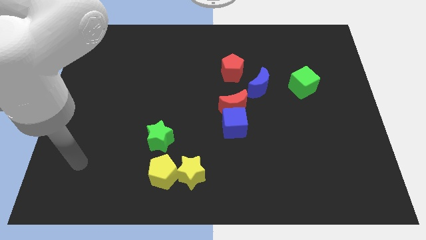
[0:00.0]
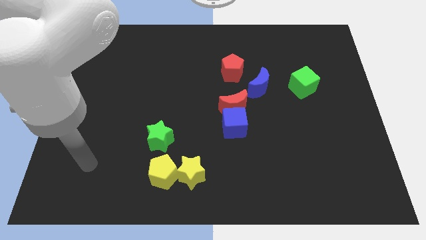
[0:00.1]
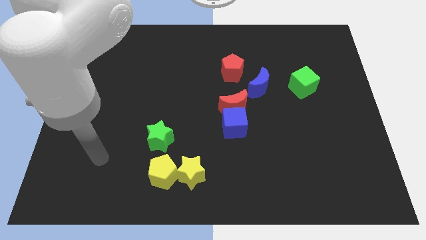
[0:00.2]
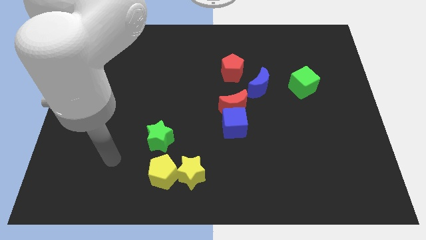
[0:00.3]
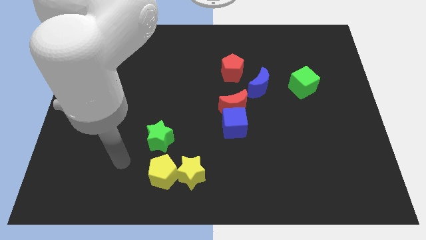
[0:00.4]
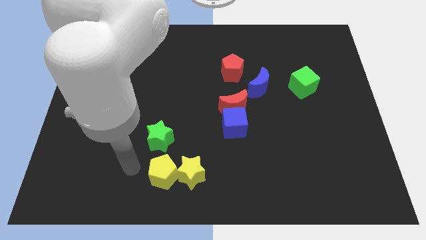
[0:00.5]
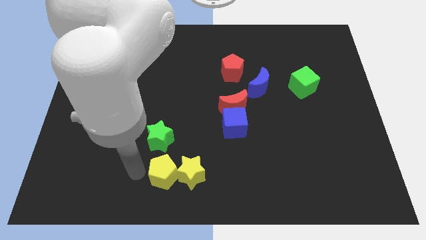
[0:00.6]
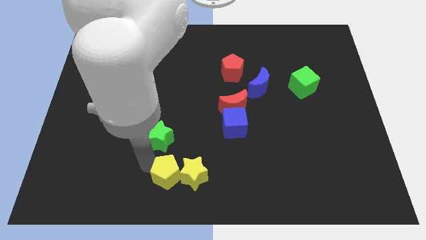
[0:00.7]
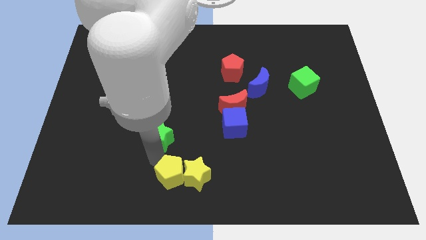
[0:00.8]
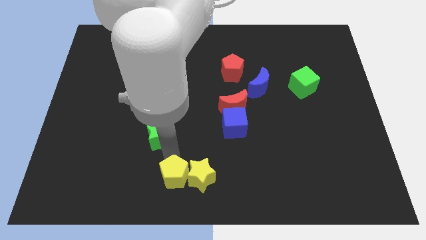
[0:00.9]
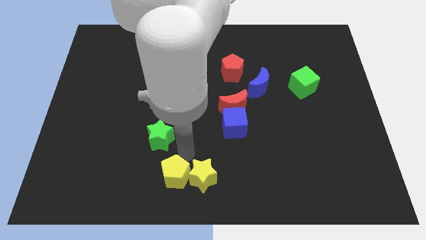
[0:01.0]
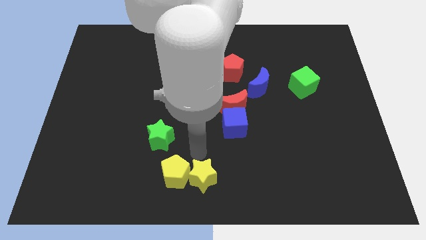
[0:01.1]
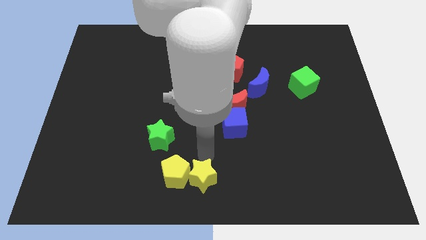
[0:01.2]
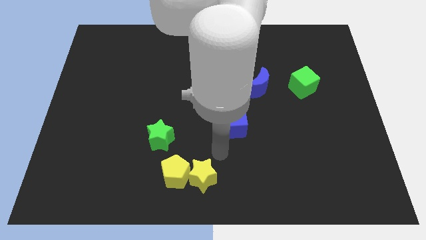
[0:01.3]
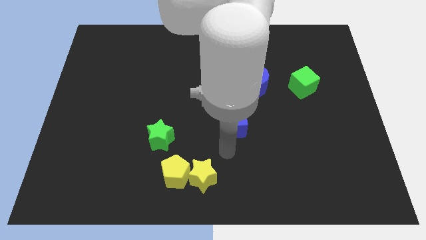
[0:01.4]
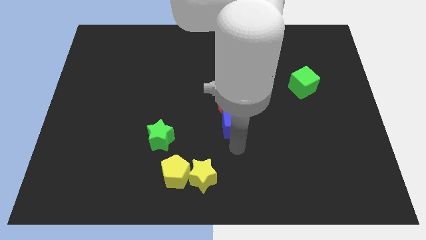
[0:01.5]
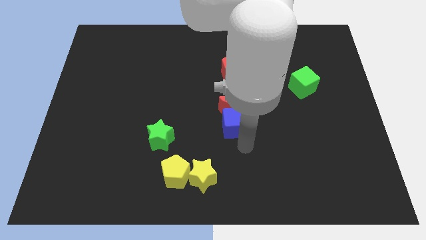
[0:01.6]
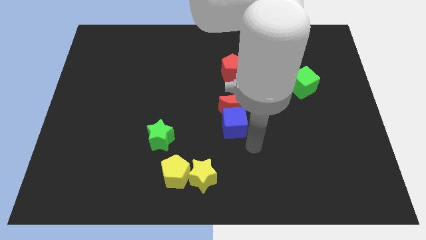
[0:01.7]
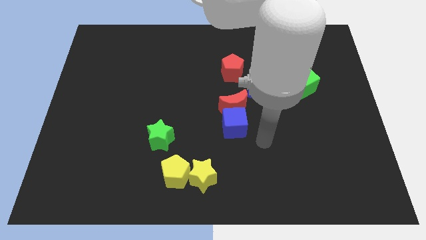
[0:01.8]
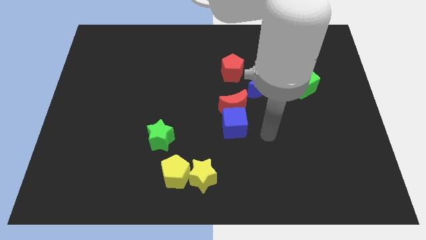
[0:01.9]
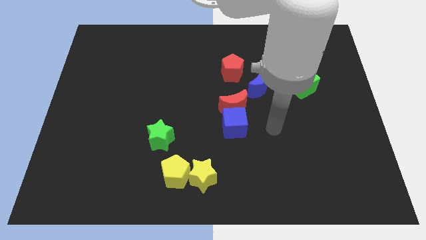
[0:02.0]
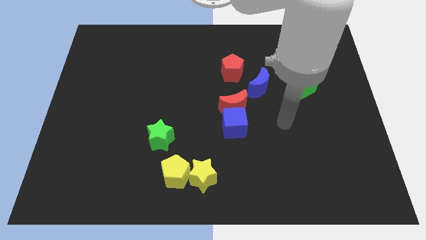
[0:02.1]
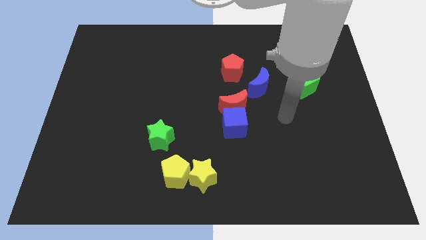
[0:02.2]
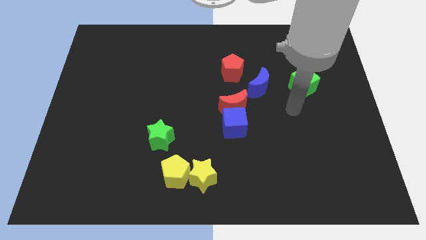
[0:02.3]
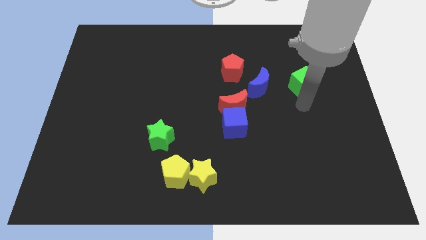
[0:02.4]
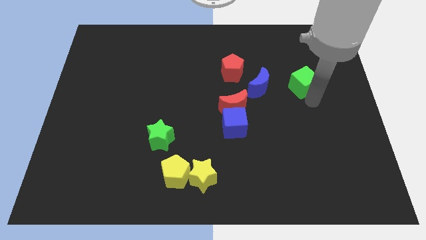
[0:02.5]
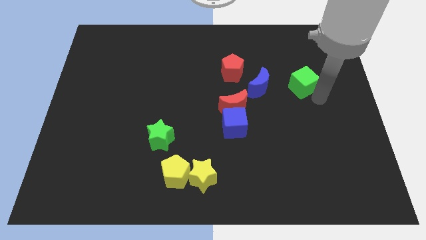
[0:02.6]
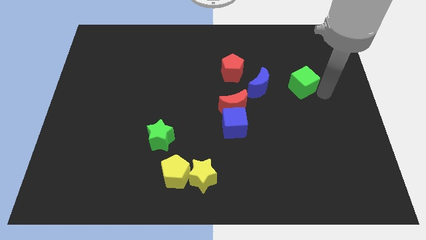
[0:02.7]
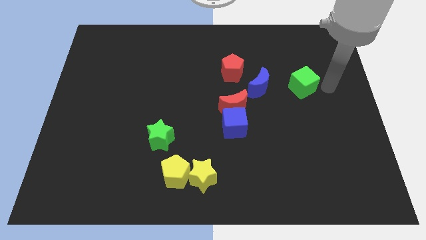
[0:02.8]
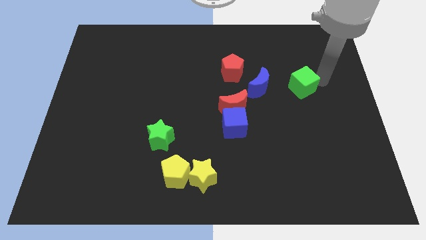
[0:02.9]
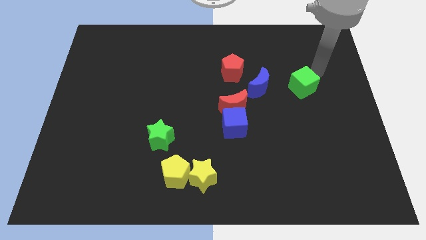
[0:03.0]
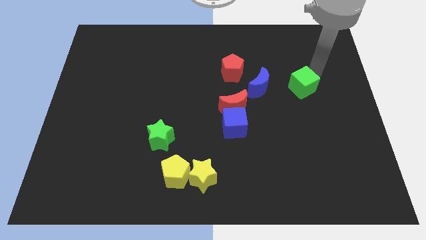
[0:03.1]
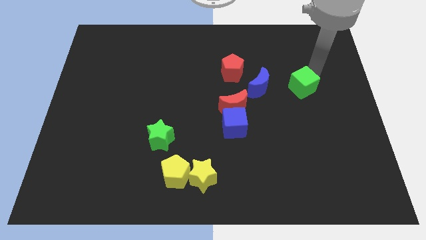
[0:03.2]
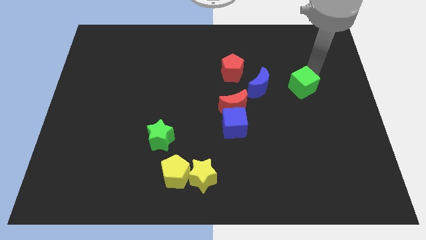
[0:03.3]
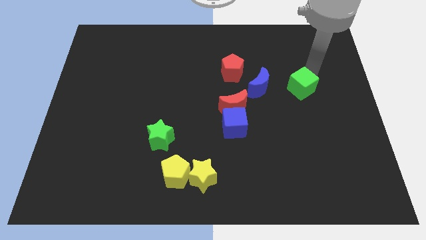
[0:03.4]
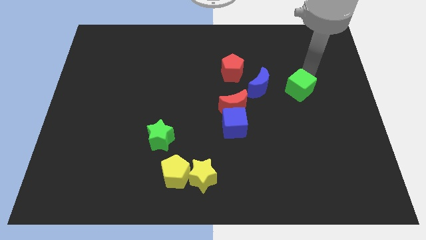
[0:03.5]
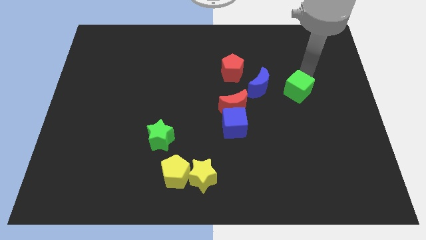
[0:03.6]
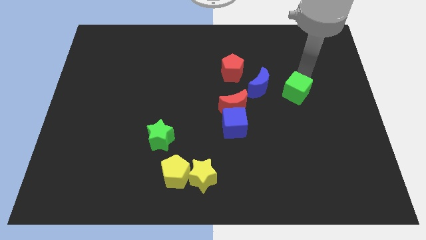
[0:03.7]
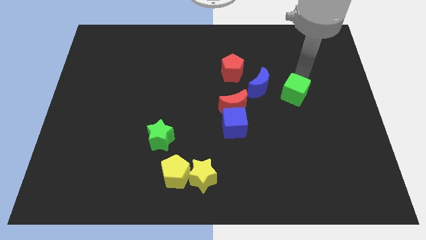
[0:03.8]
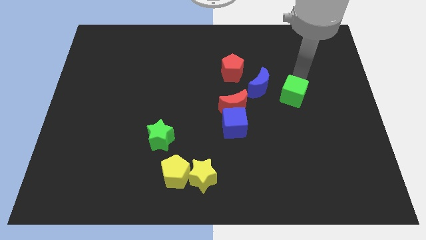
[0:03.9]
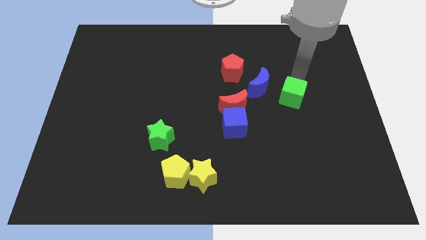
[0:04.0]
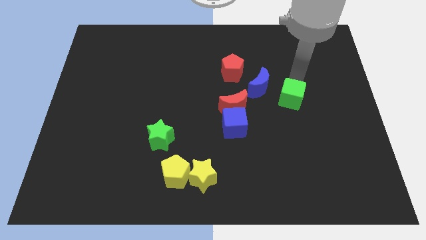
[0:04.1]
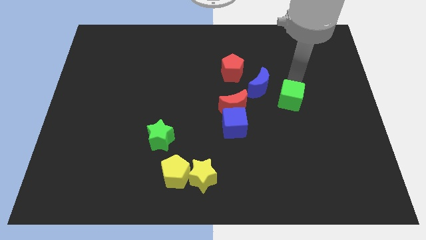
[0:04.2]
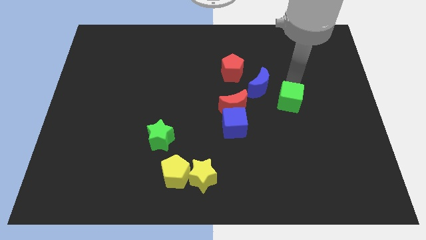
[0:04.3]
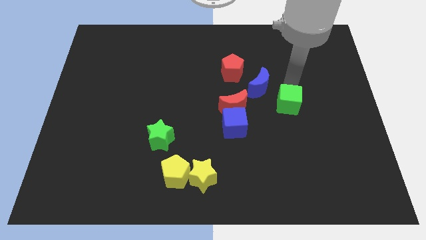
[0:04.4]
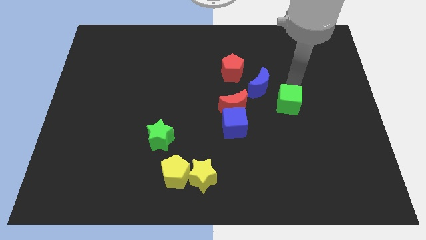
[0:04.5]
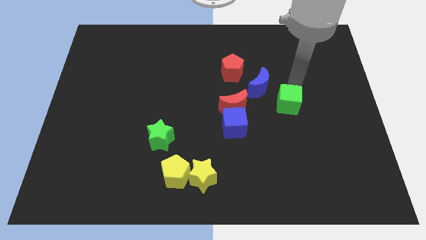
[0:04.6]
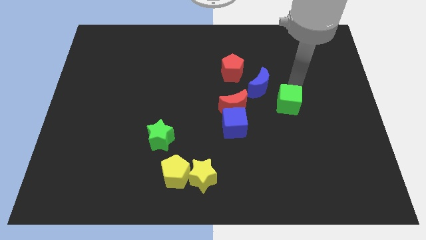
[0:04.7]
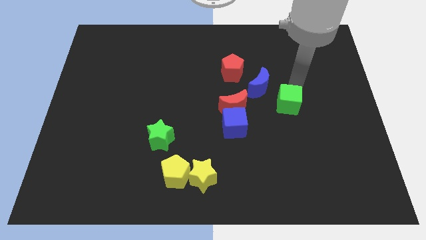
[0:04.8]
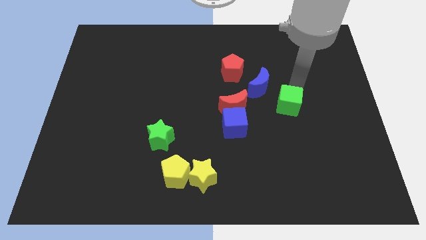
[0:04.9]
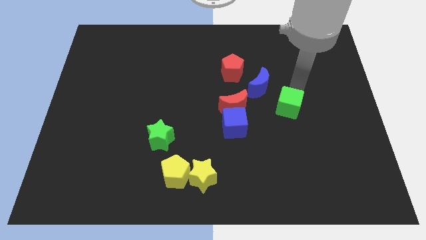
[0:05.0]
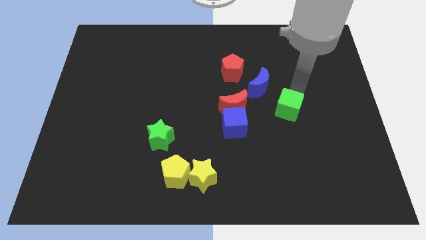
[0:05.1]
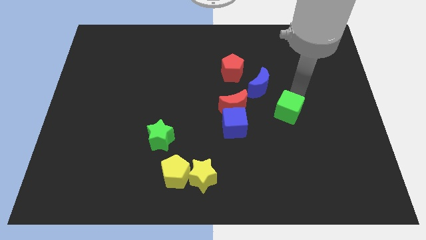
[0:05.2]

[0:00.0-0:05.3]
put the green cube to the right of the blue cube

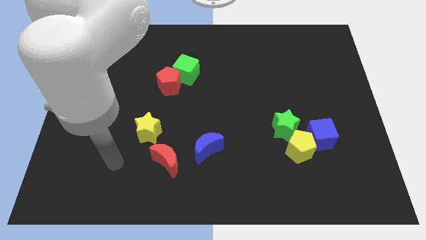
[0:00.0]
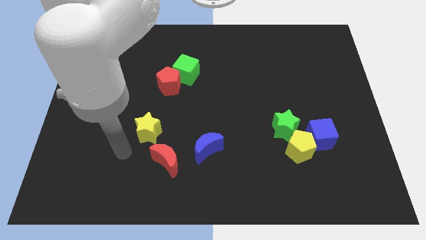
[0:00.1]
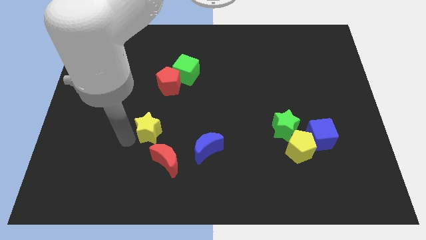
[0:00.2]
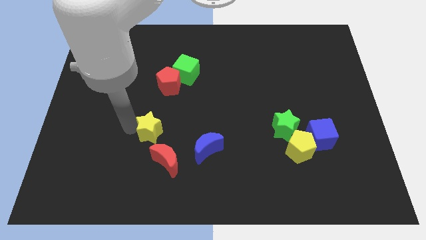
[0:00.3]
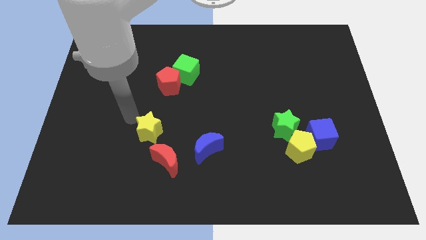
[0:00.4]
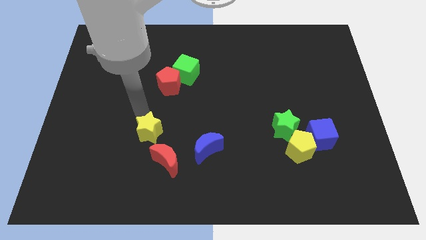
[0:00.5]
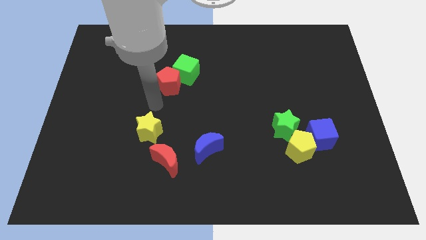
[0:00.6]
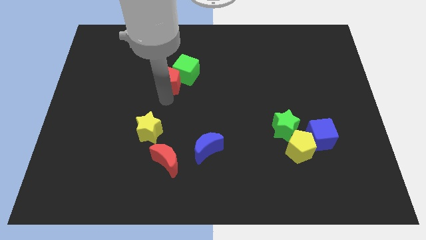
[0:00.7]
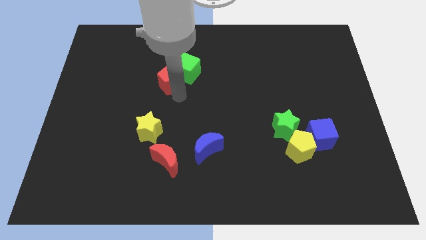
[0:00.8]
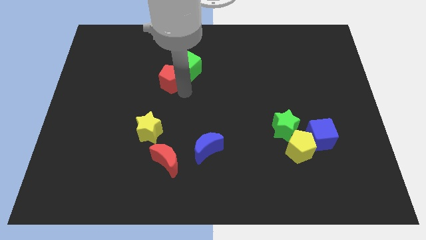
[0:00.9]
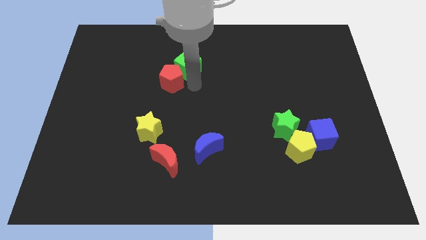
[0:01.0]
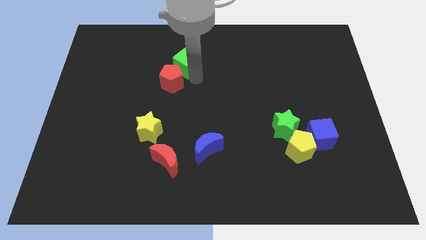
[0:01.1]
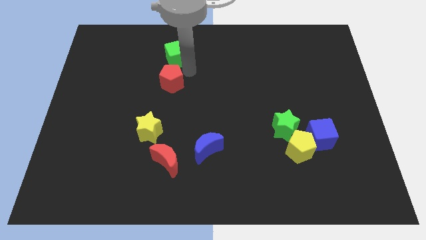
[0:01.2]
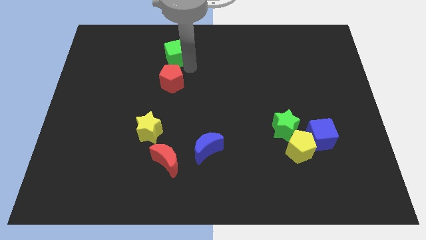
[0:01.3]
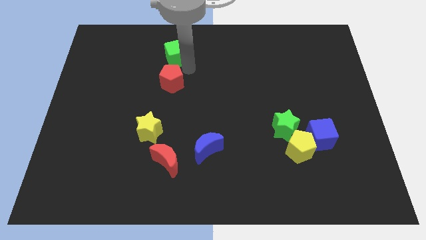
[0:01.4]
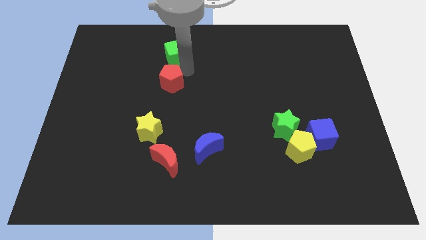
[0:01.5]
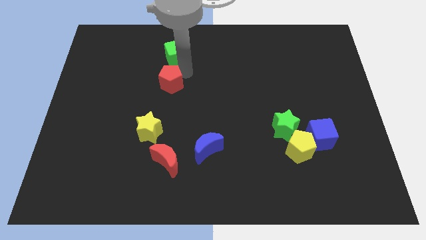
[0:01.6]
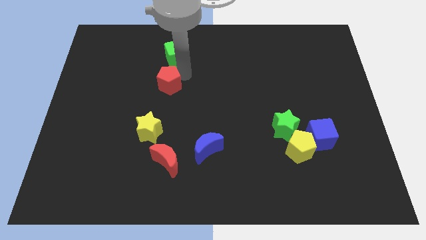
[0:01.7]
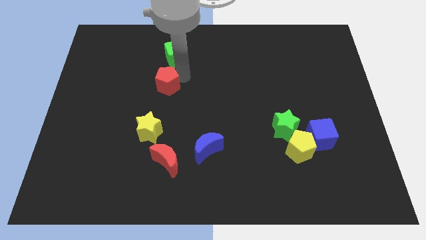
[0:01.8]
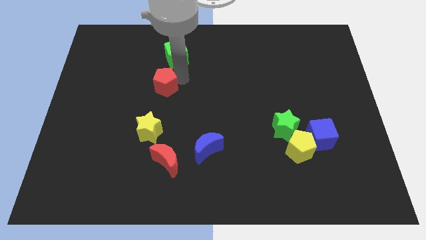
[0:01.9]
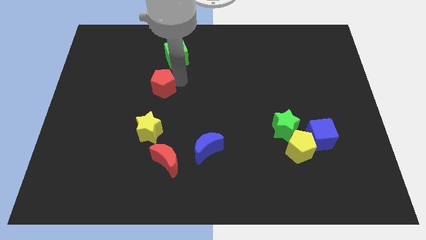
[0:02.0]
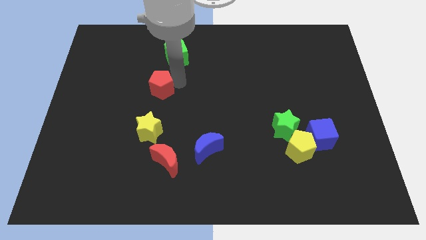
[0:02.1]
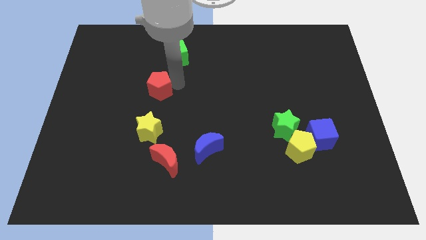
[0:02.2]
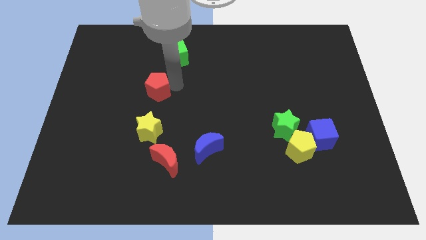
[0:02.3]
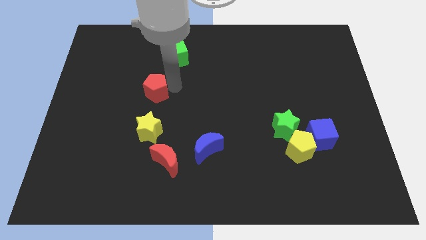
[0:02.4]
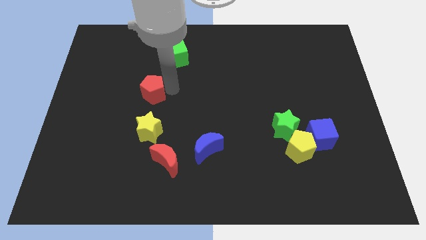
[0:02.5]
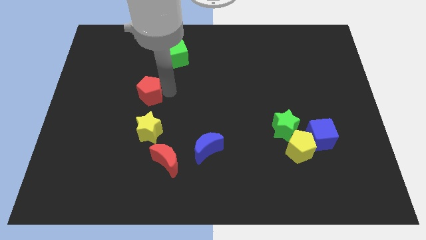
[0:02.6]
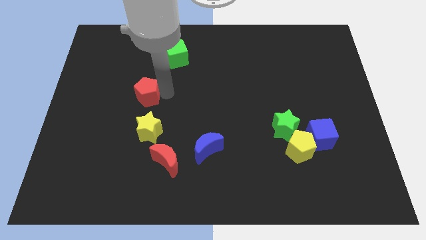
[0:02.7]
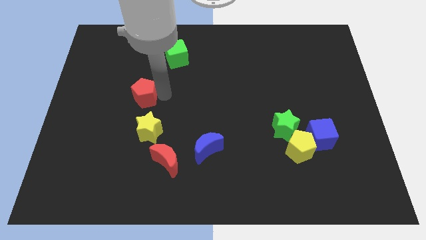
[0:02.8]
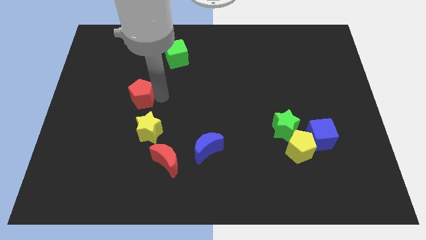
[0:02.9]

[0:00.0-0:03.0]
put the red pentagon diagonally up and to the left of the yellow star
